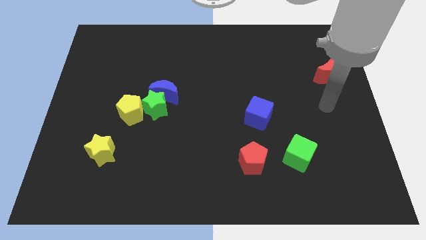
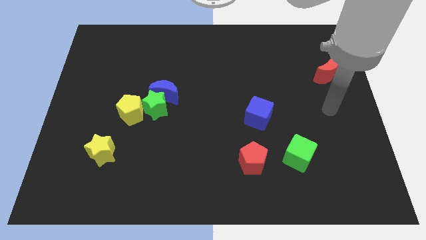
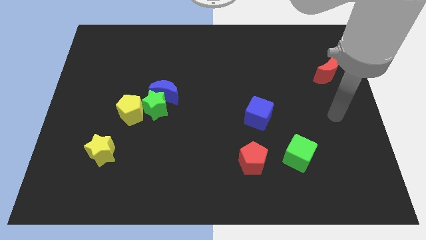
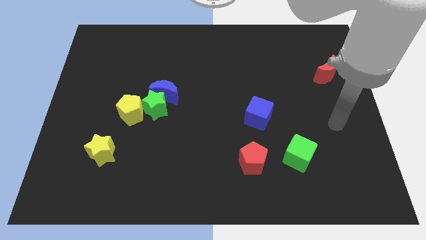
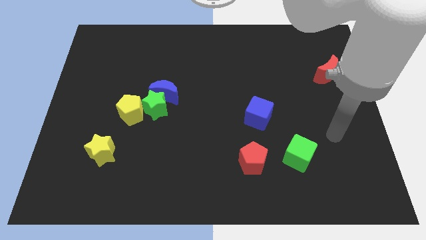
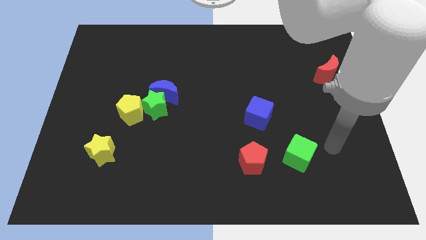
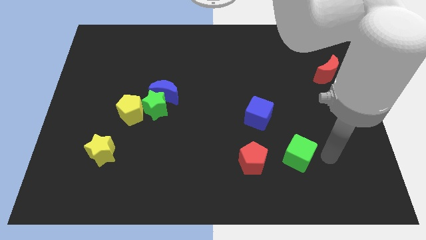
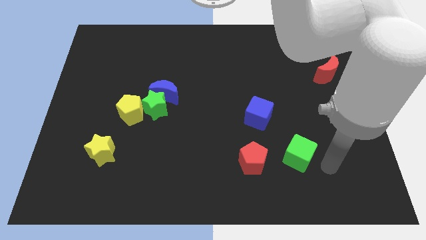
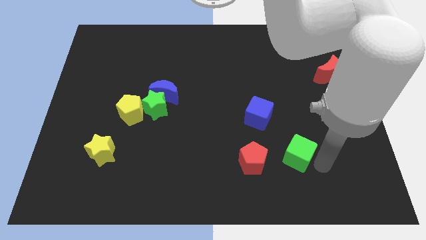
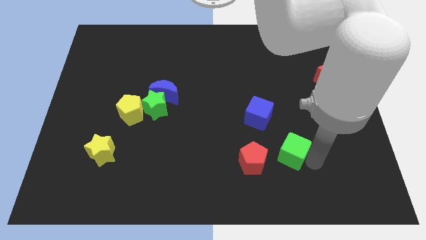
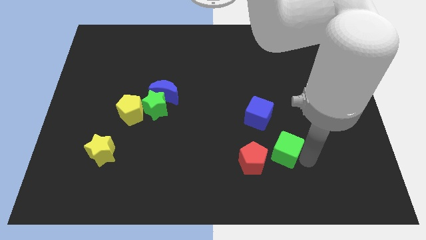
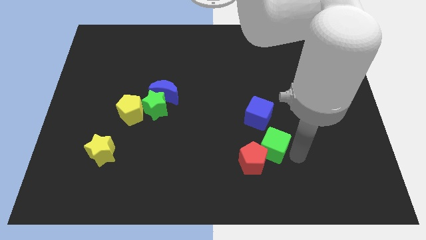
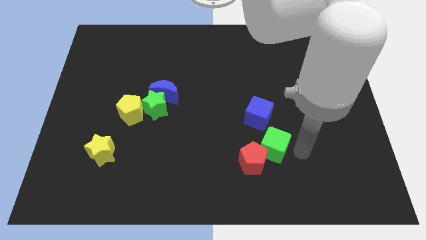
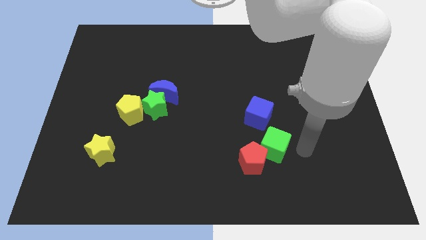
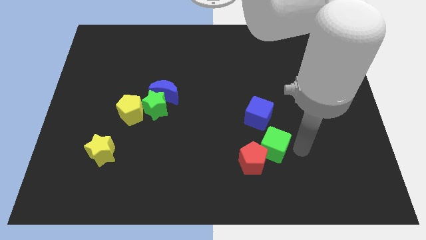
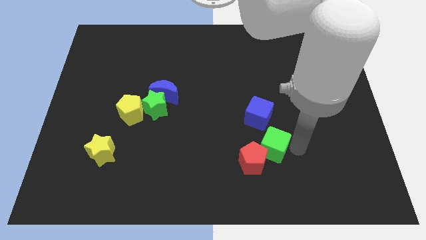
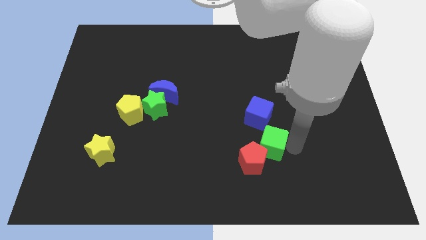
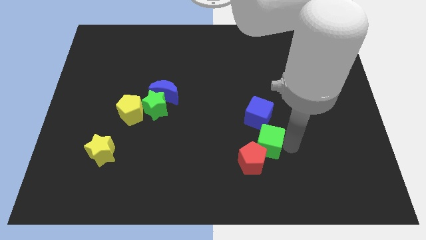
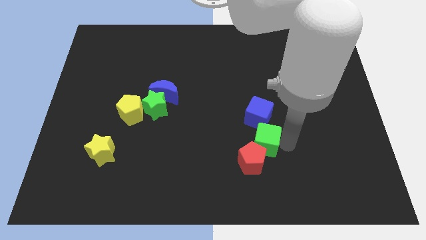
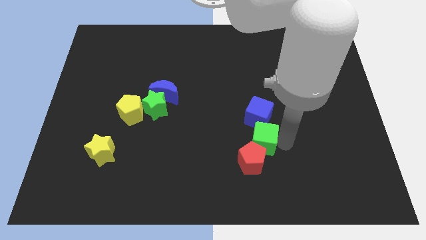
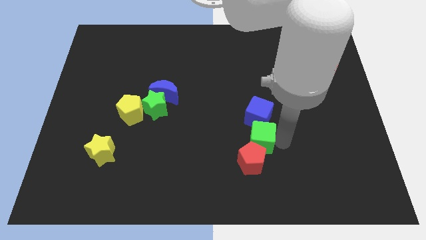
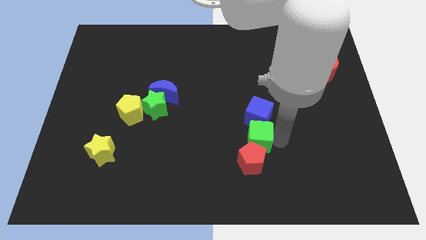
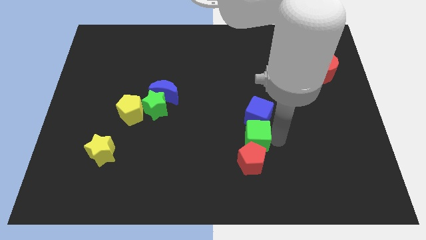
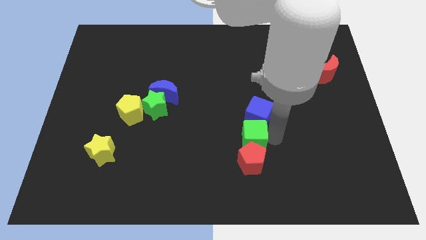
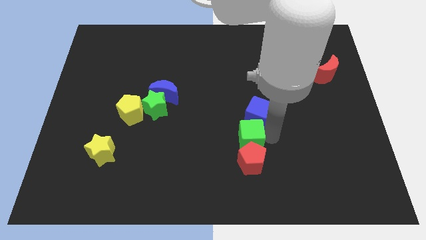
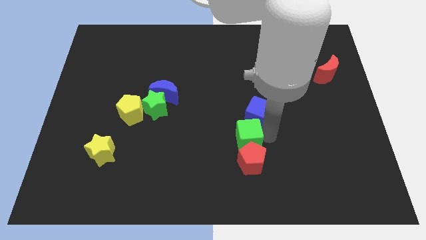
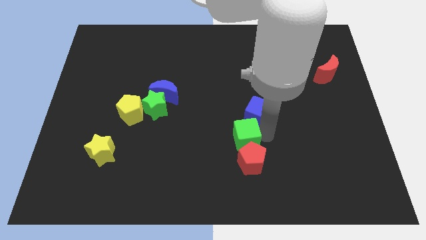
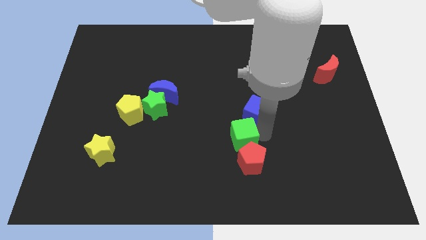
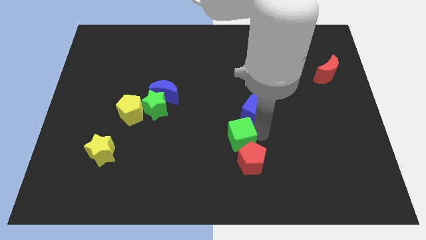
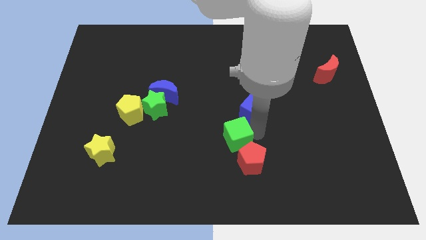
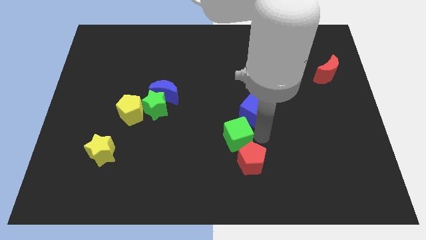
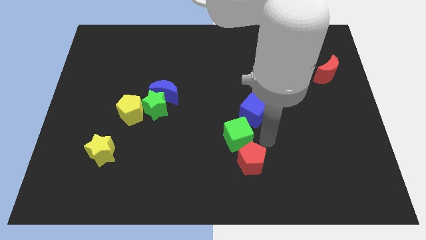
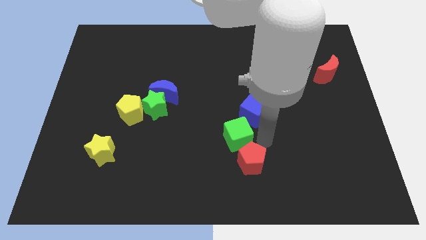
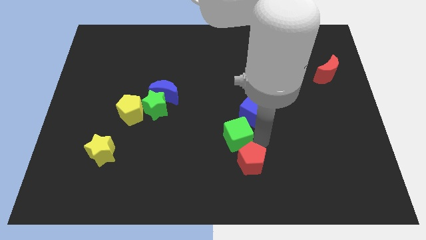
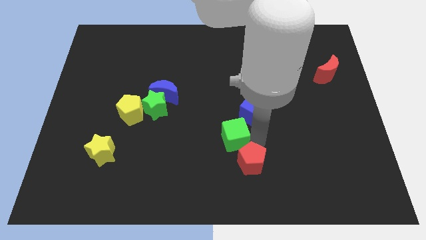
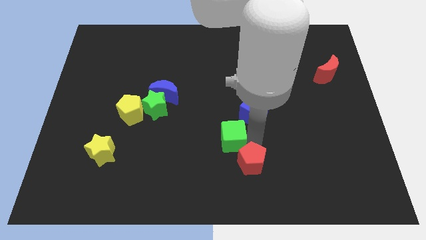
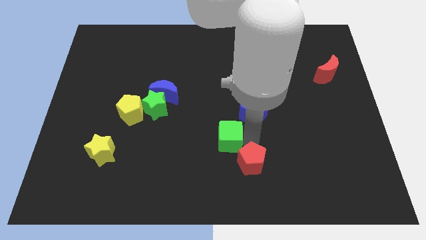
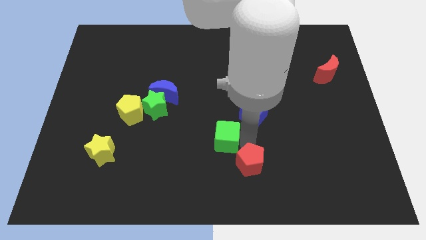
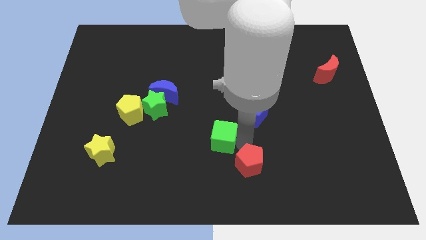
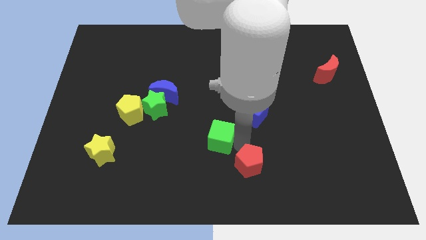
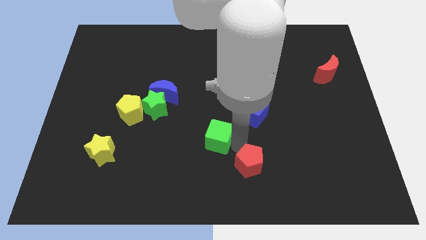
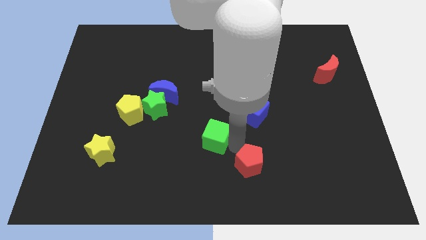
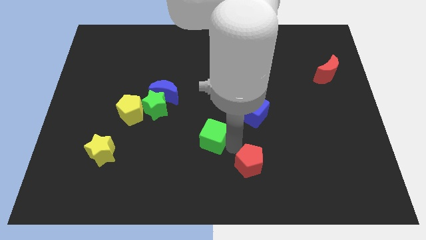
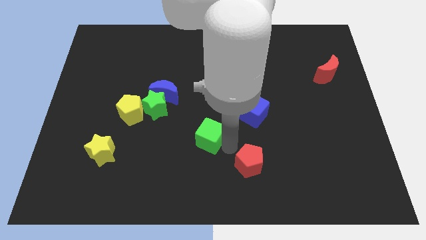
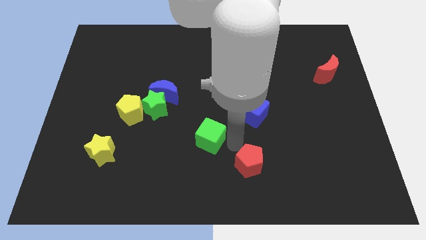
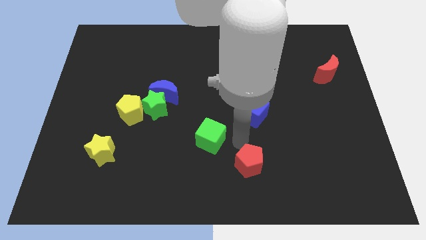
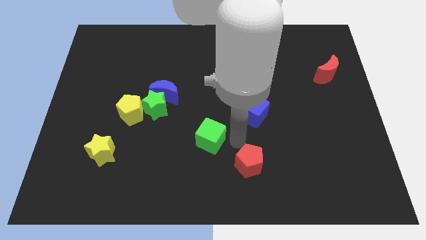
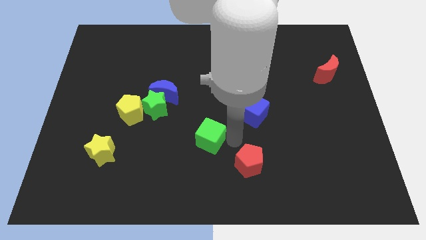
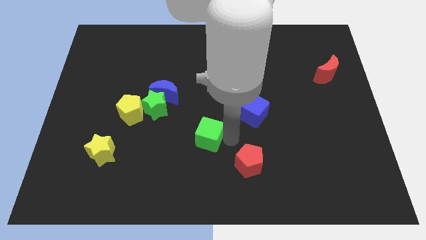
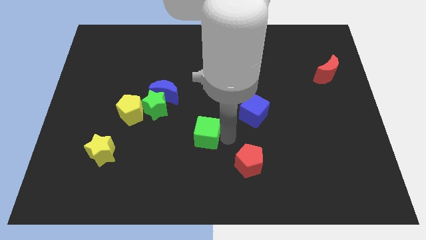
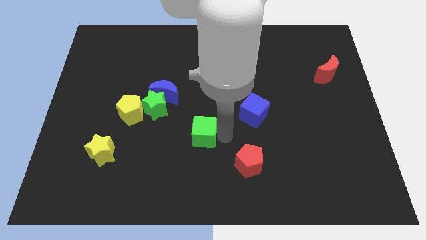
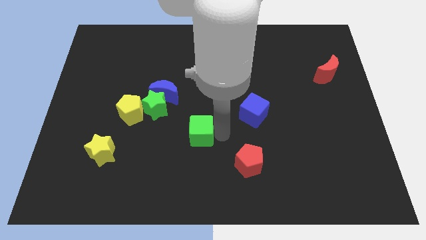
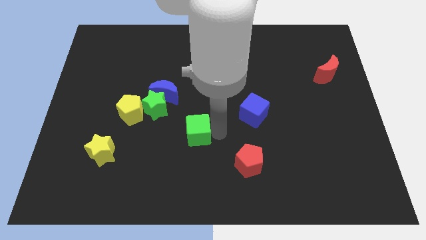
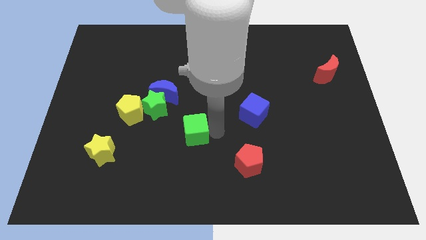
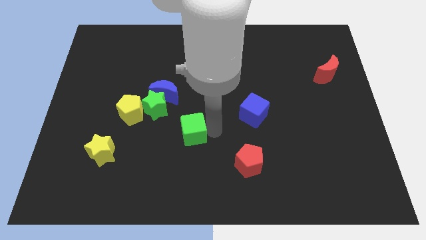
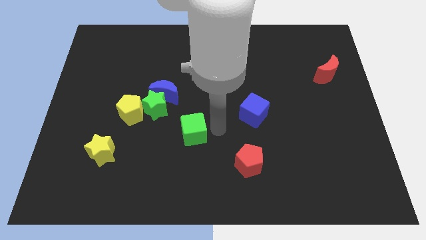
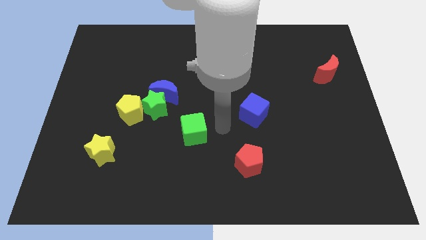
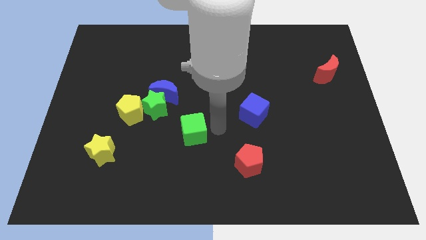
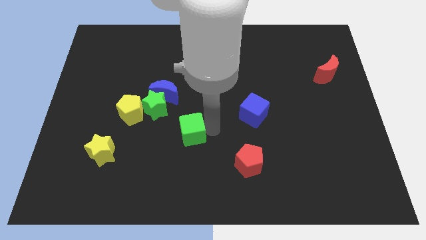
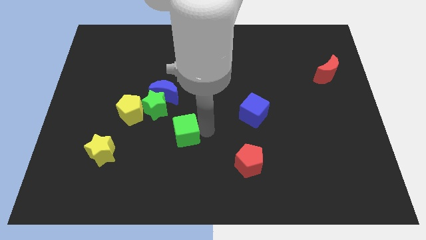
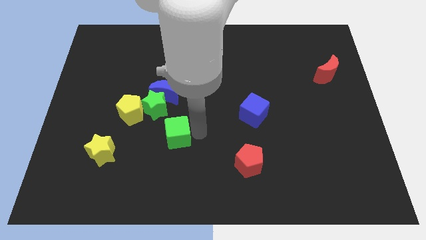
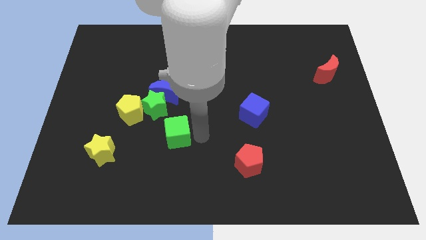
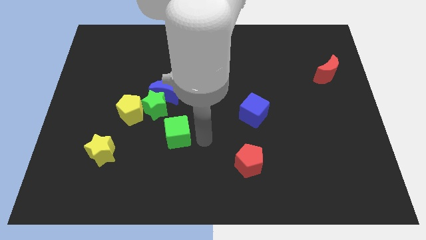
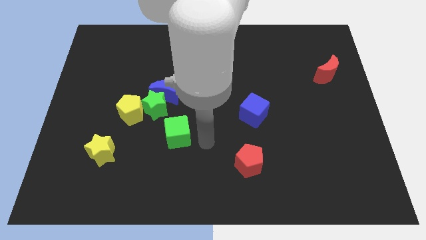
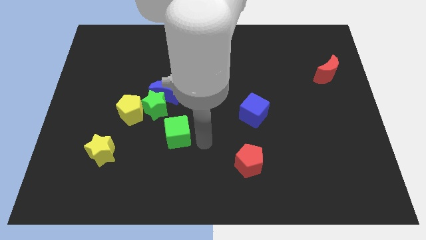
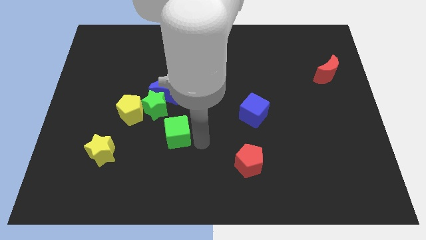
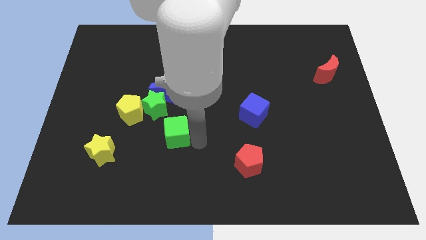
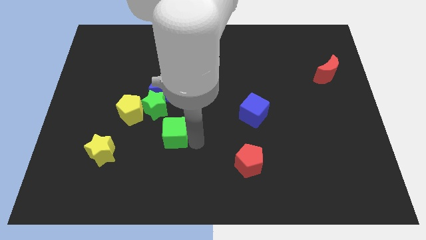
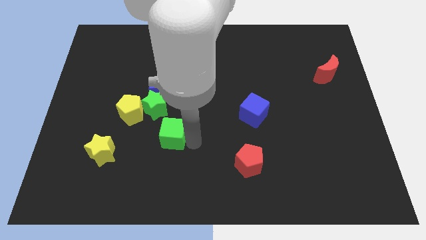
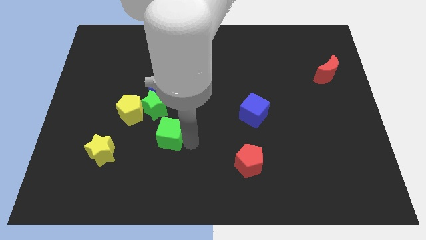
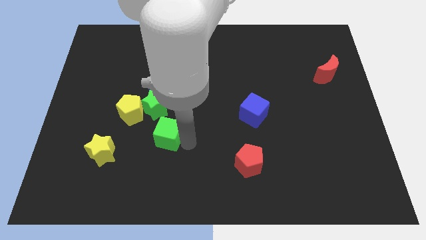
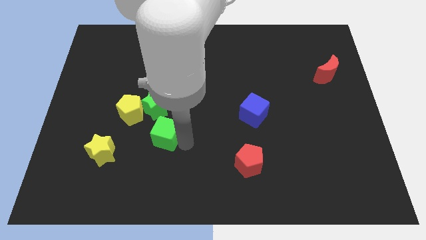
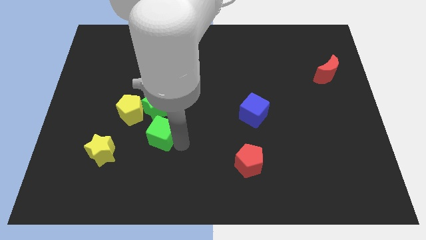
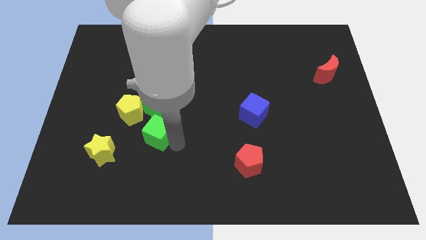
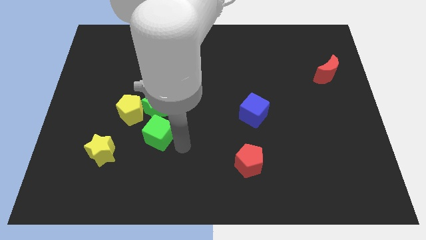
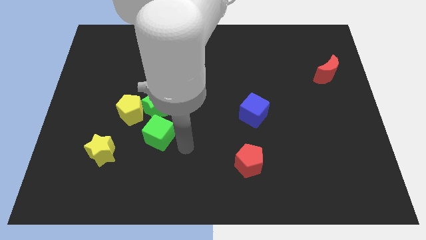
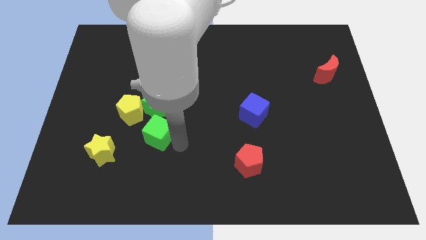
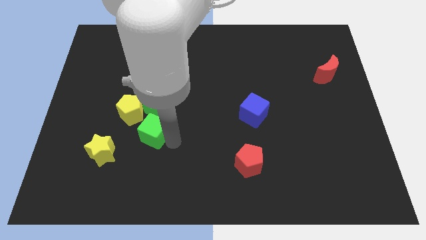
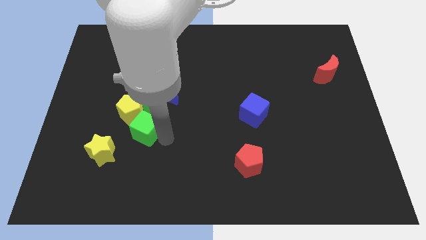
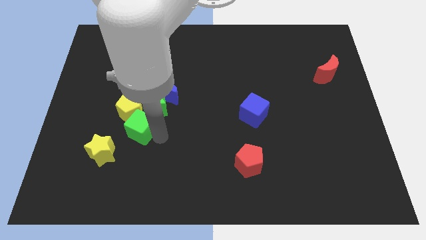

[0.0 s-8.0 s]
put the green cube to the yellow pentagon
